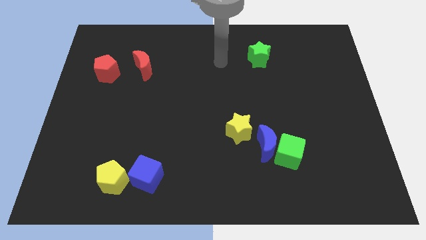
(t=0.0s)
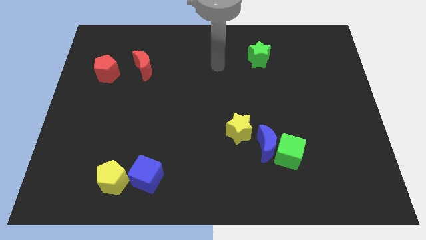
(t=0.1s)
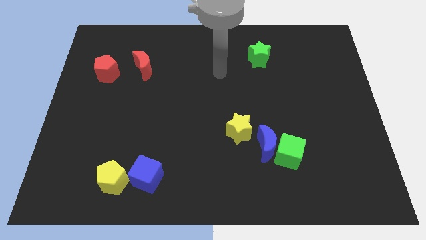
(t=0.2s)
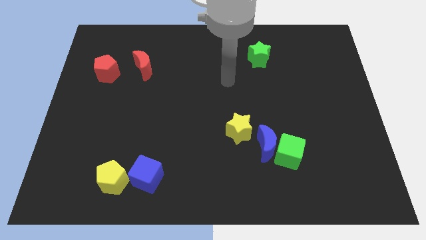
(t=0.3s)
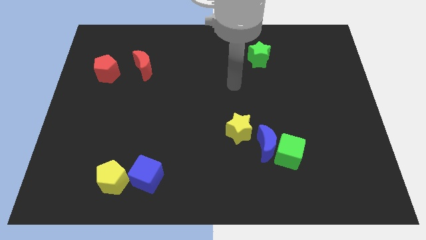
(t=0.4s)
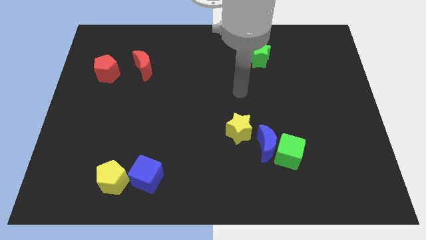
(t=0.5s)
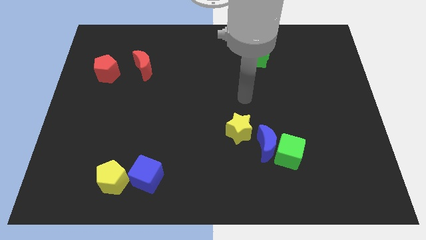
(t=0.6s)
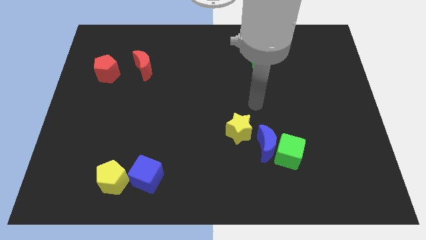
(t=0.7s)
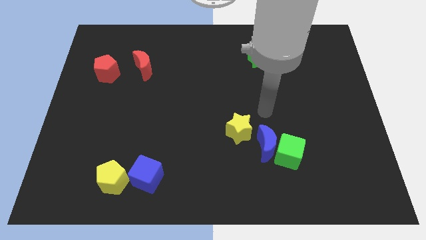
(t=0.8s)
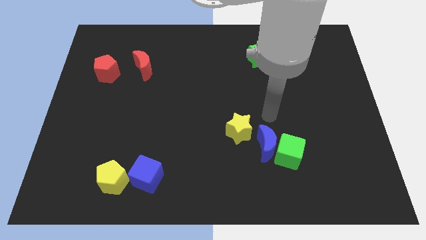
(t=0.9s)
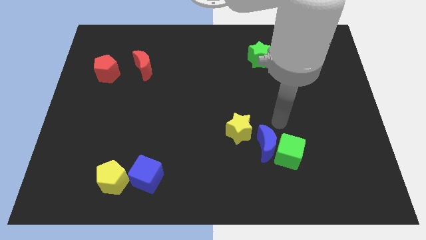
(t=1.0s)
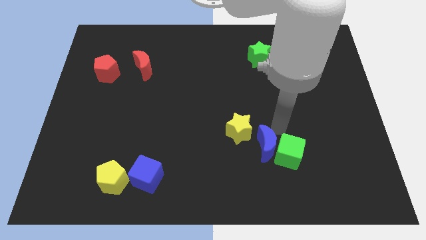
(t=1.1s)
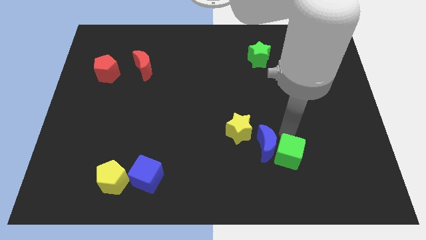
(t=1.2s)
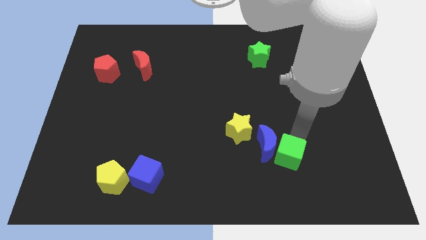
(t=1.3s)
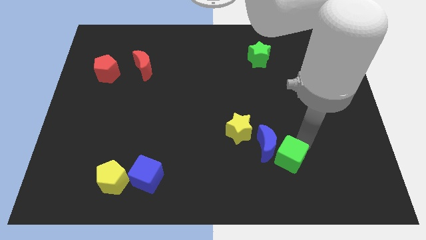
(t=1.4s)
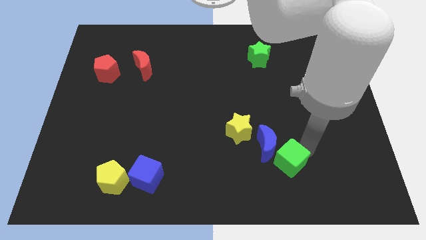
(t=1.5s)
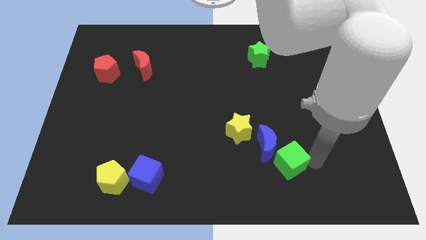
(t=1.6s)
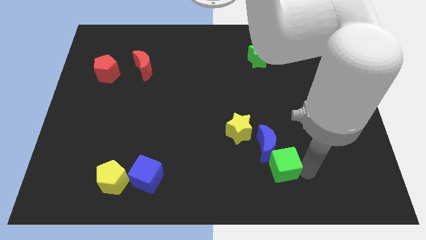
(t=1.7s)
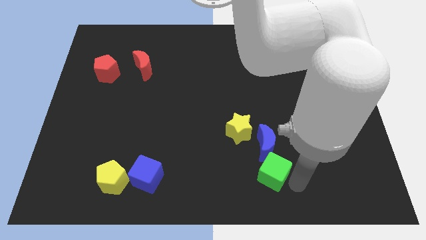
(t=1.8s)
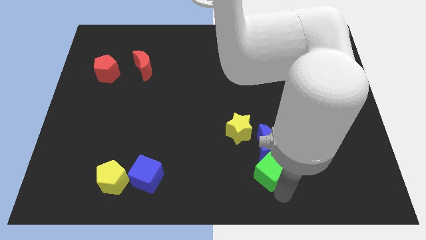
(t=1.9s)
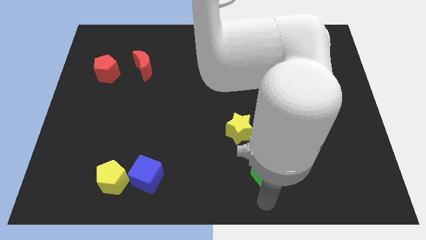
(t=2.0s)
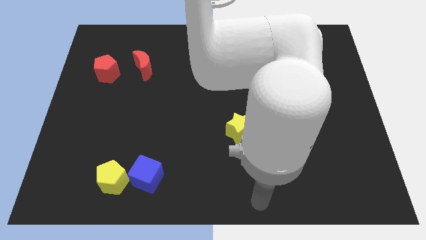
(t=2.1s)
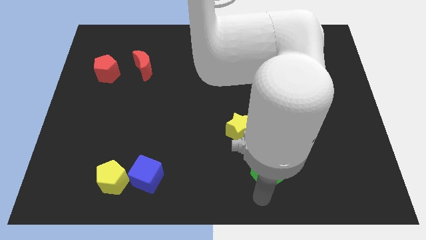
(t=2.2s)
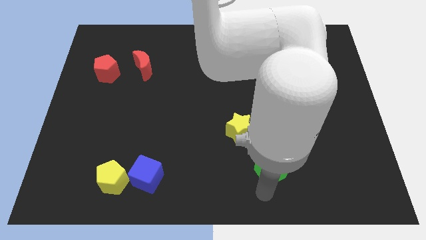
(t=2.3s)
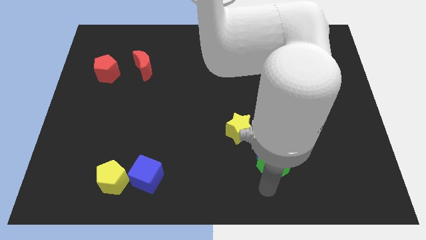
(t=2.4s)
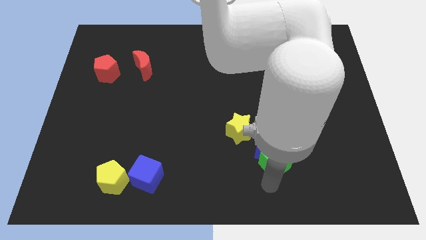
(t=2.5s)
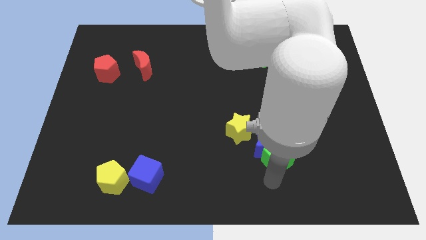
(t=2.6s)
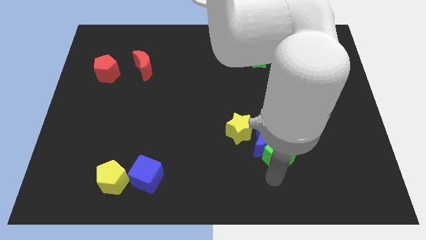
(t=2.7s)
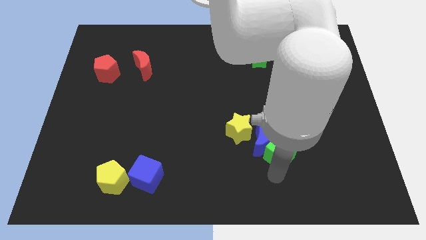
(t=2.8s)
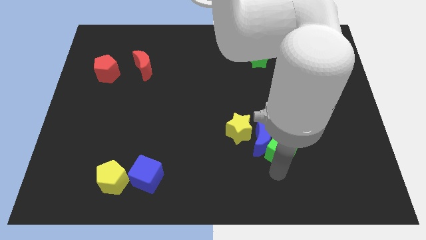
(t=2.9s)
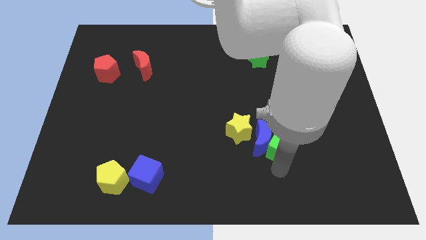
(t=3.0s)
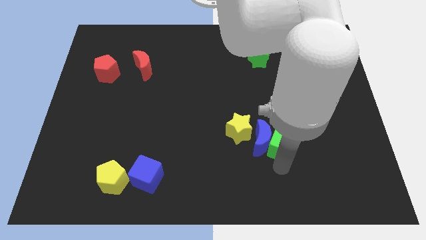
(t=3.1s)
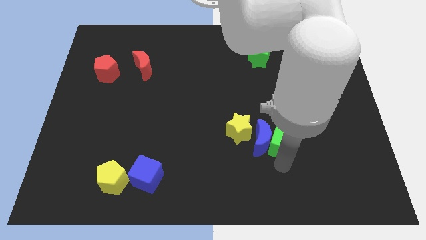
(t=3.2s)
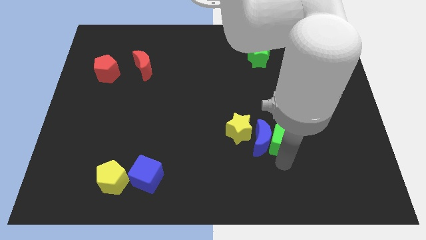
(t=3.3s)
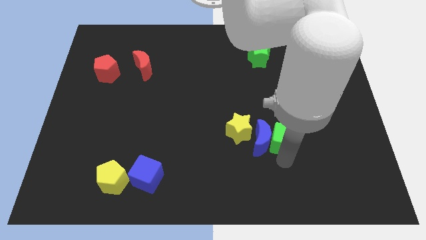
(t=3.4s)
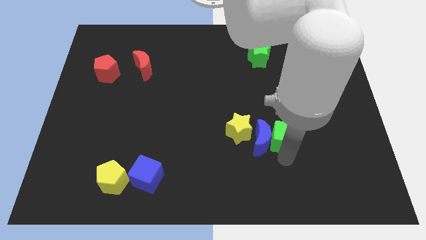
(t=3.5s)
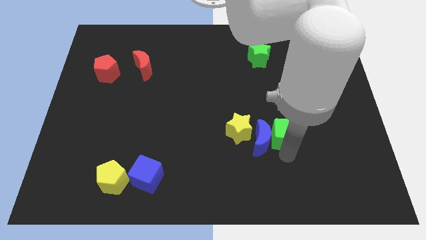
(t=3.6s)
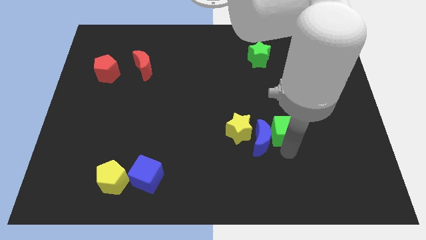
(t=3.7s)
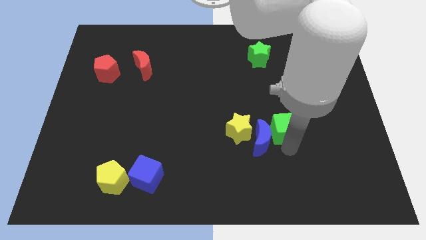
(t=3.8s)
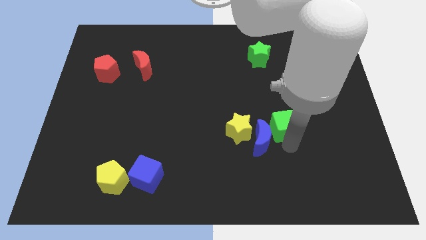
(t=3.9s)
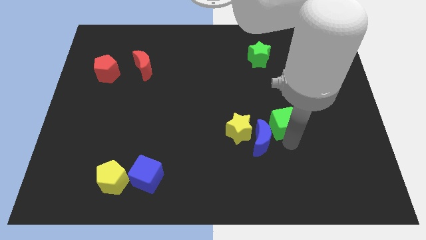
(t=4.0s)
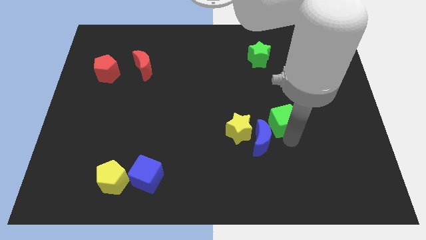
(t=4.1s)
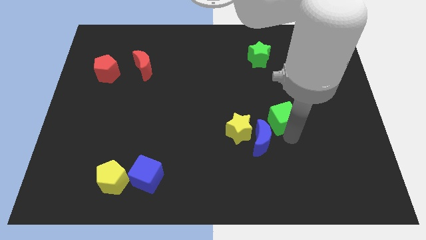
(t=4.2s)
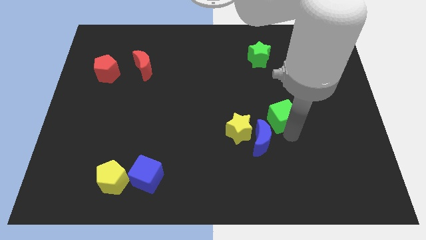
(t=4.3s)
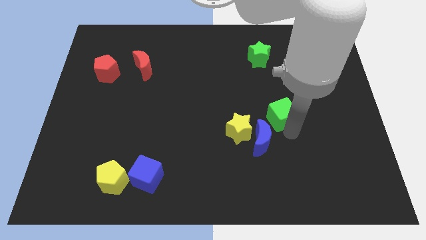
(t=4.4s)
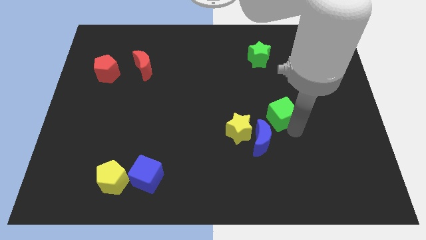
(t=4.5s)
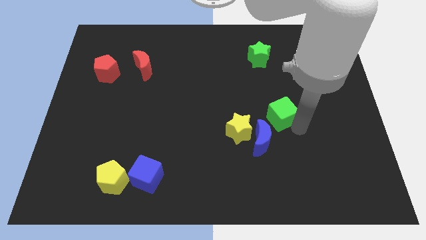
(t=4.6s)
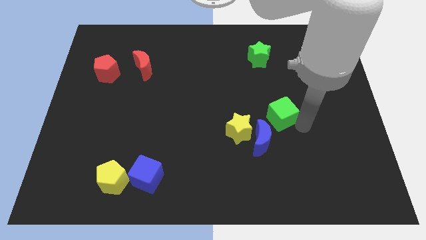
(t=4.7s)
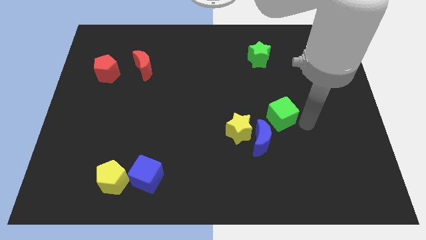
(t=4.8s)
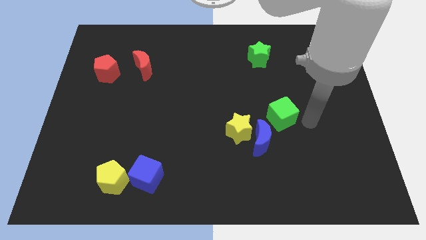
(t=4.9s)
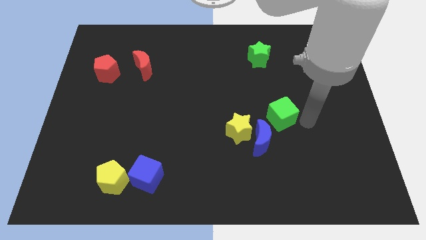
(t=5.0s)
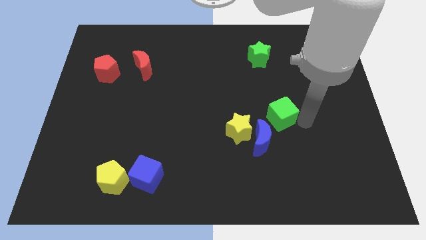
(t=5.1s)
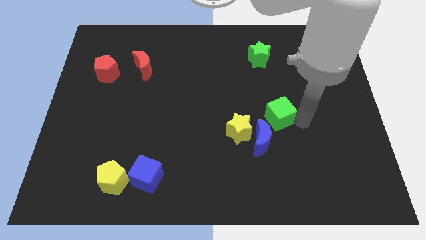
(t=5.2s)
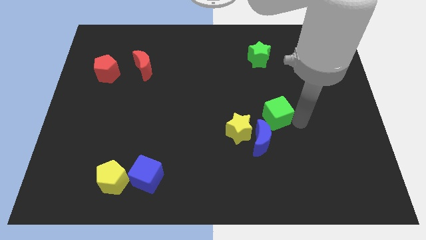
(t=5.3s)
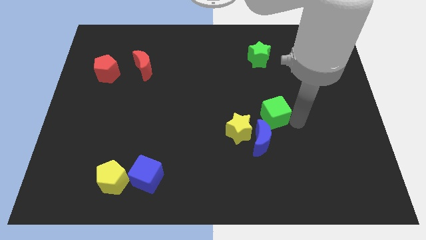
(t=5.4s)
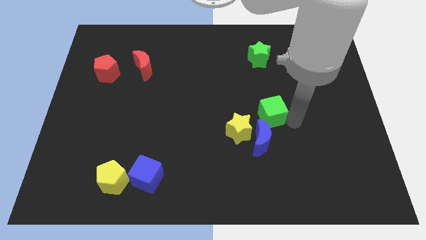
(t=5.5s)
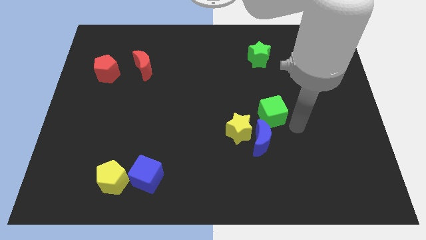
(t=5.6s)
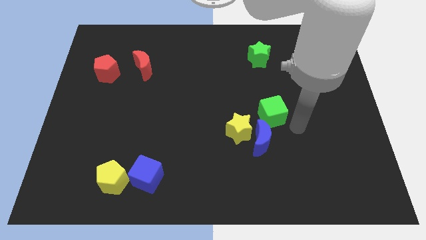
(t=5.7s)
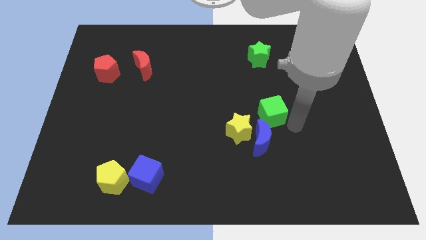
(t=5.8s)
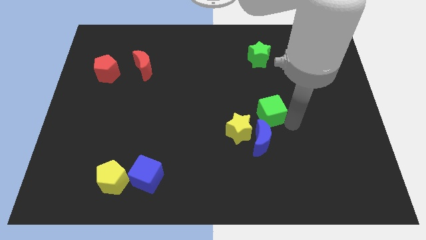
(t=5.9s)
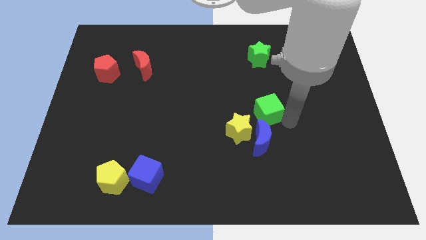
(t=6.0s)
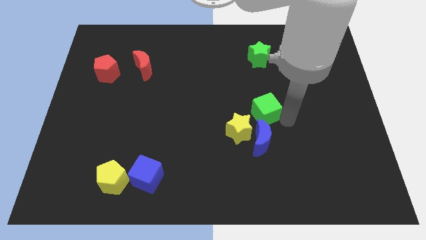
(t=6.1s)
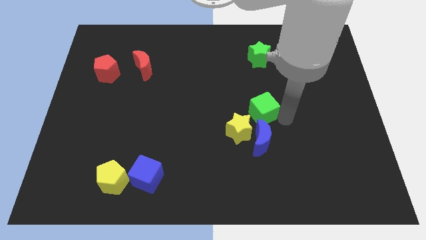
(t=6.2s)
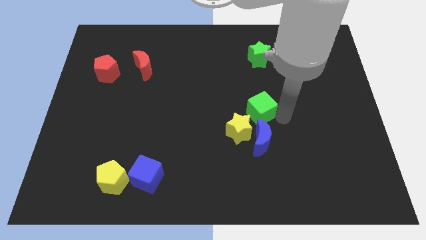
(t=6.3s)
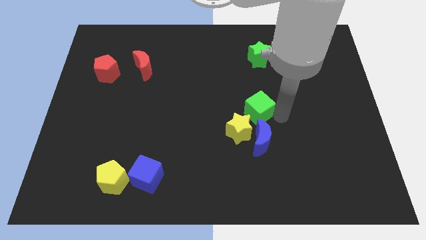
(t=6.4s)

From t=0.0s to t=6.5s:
put the green cube to the top of the yellow star
